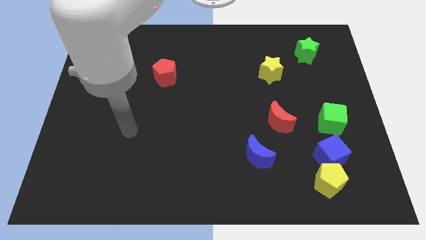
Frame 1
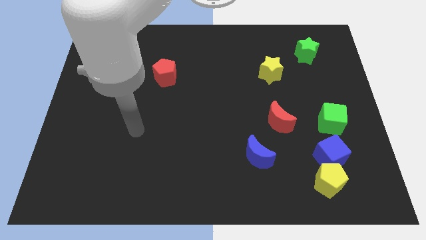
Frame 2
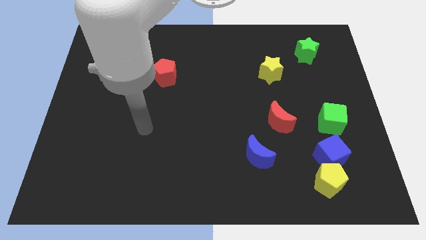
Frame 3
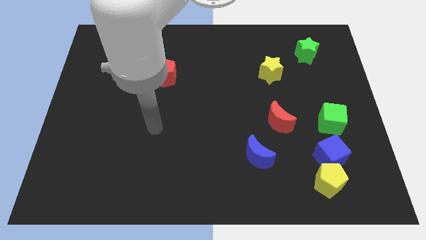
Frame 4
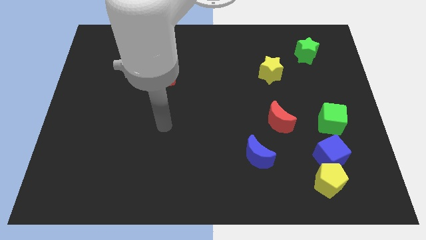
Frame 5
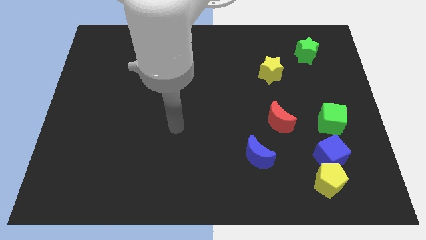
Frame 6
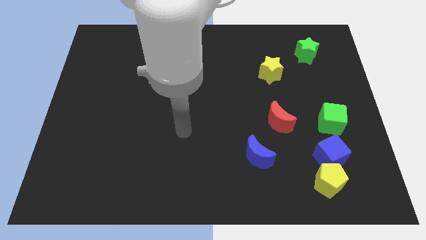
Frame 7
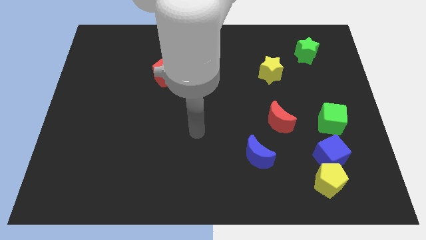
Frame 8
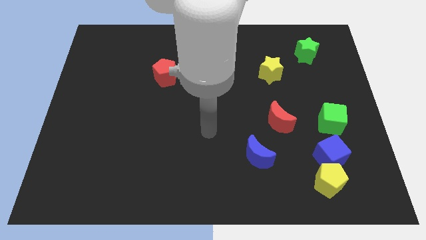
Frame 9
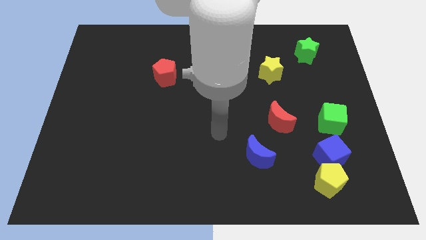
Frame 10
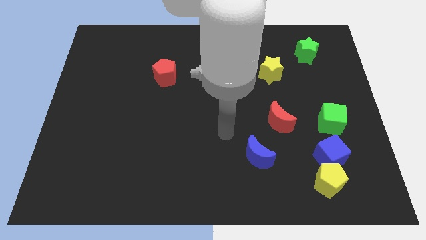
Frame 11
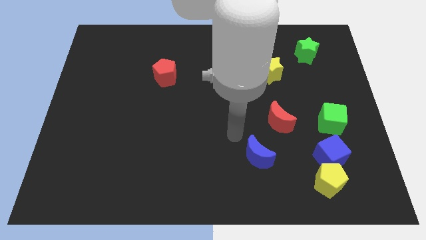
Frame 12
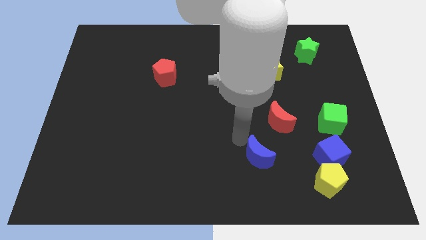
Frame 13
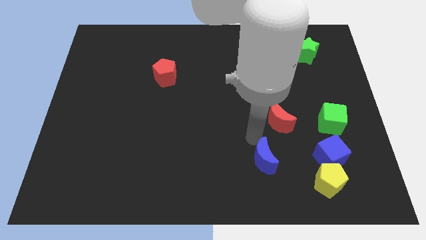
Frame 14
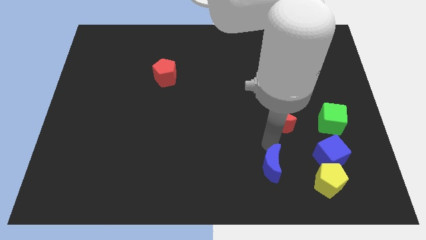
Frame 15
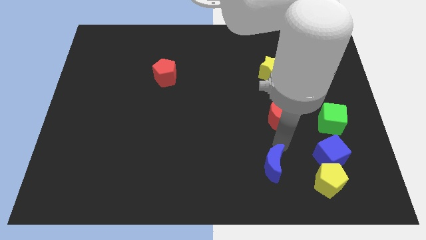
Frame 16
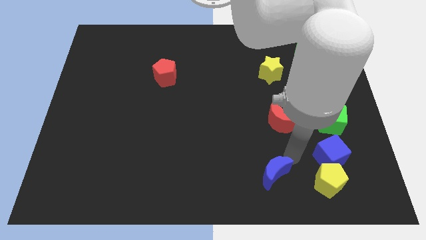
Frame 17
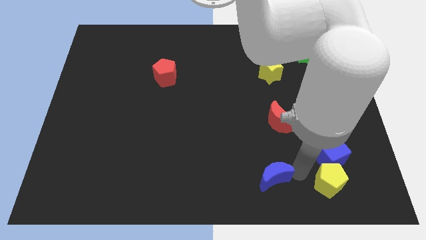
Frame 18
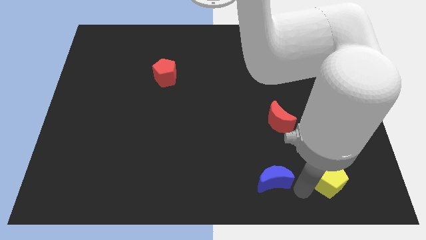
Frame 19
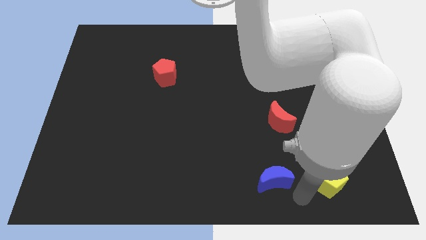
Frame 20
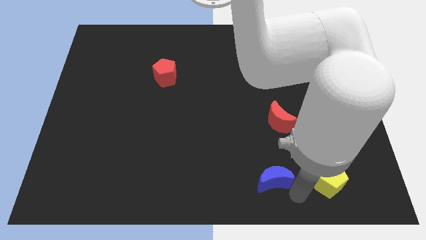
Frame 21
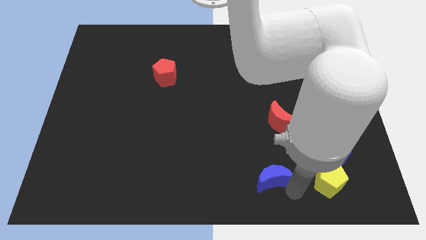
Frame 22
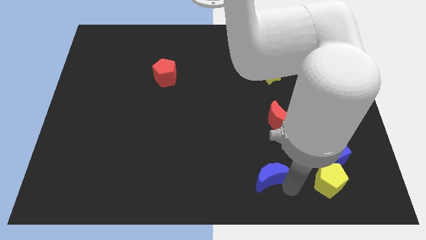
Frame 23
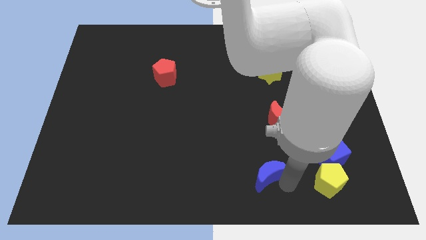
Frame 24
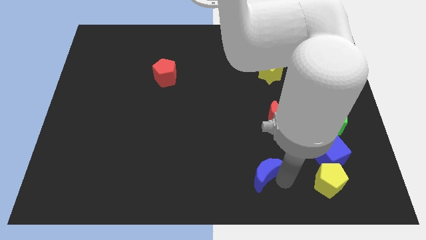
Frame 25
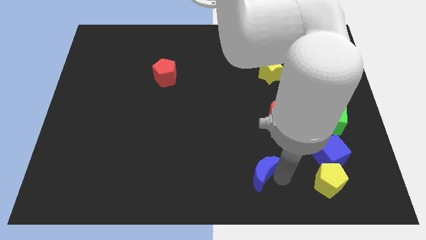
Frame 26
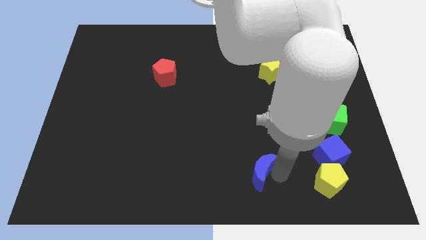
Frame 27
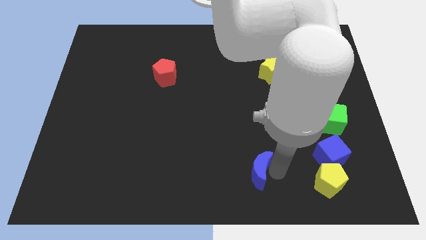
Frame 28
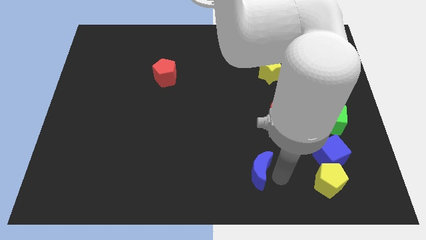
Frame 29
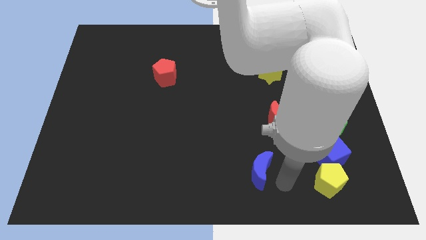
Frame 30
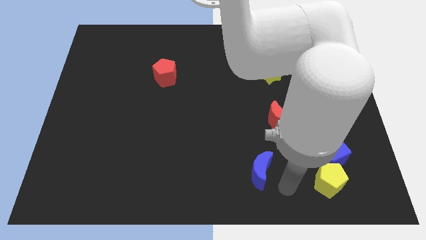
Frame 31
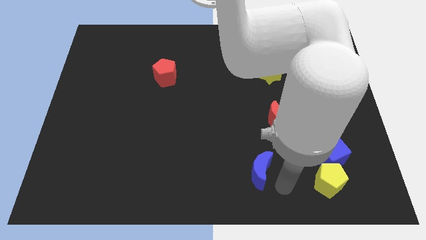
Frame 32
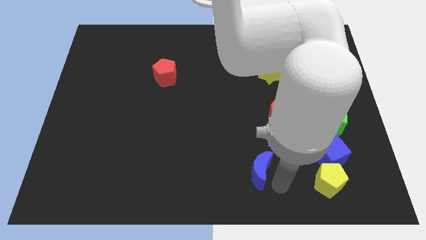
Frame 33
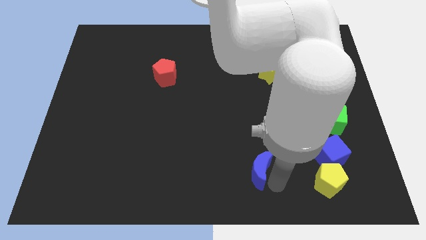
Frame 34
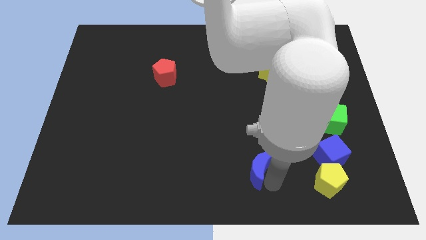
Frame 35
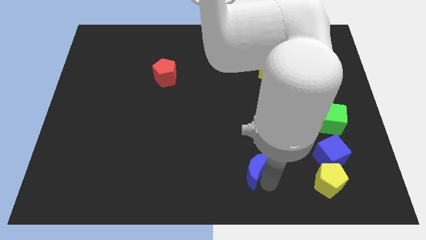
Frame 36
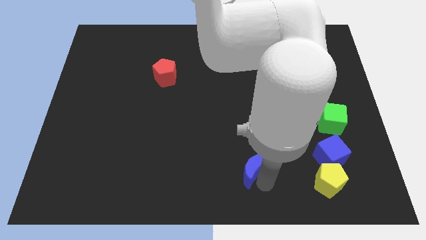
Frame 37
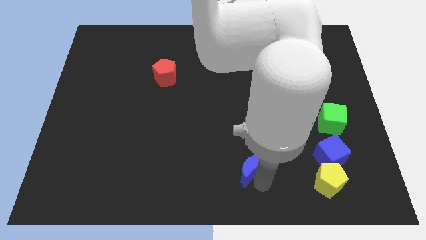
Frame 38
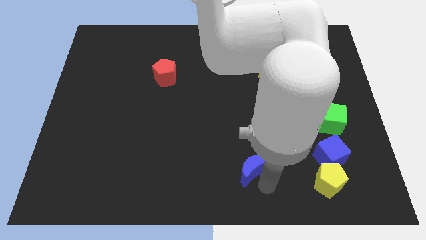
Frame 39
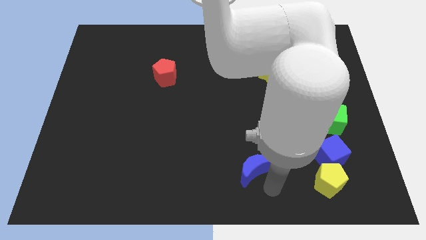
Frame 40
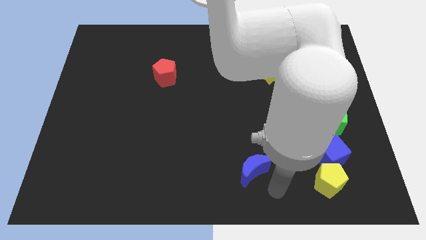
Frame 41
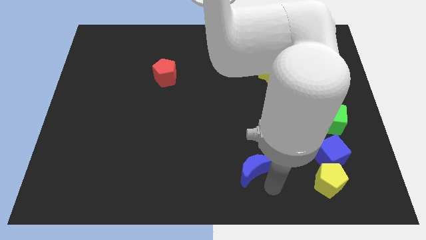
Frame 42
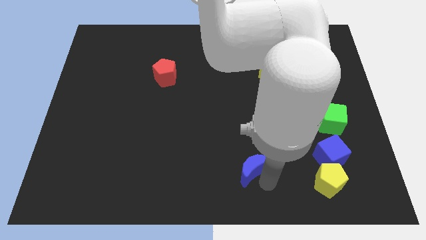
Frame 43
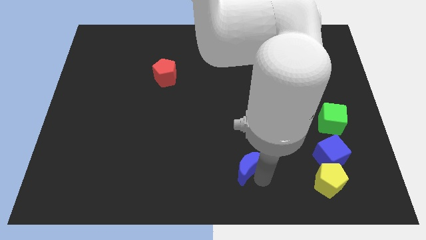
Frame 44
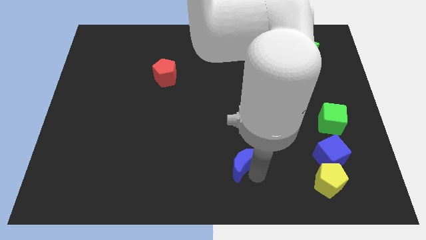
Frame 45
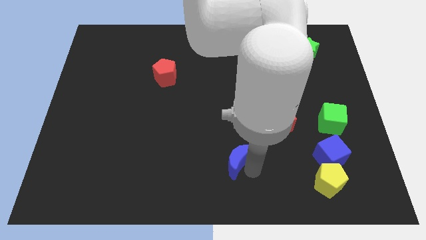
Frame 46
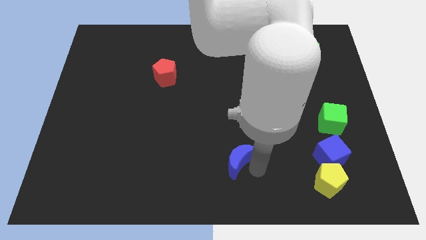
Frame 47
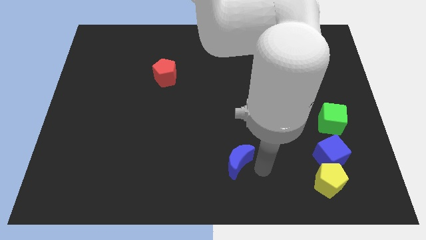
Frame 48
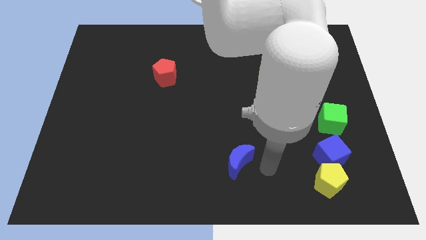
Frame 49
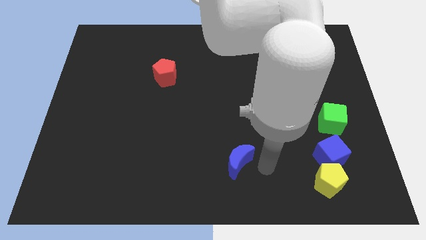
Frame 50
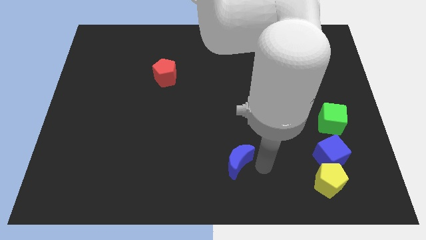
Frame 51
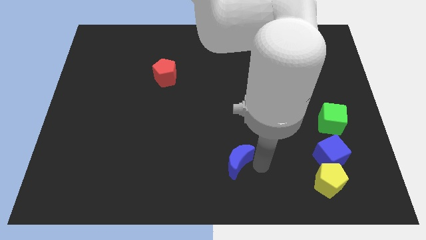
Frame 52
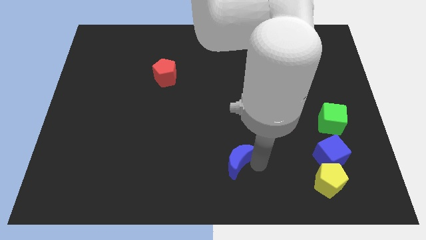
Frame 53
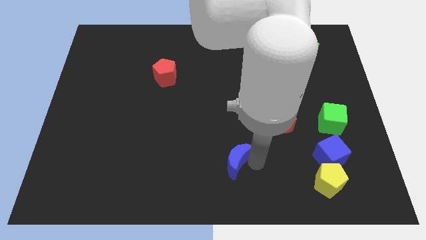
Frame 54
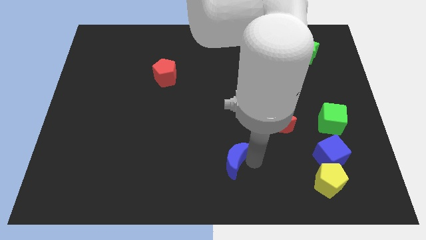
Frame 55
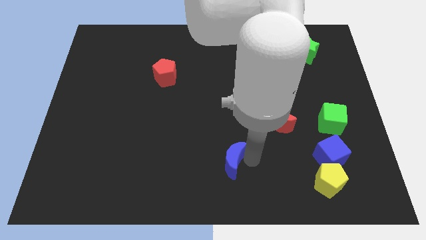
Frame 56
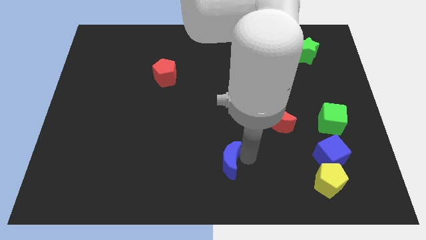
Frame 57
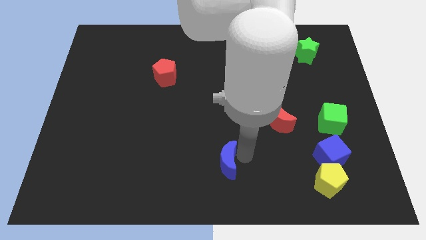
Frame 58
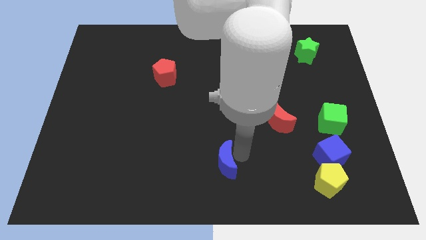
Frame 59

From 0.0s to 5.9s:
push the blue moon a little left

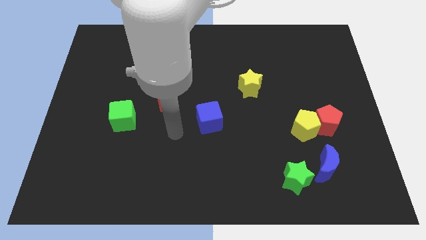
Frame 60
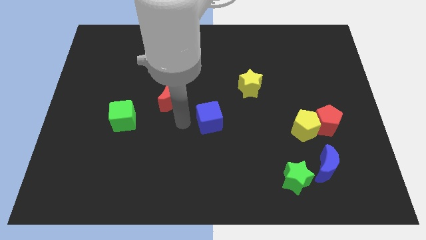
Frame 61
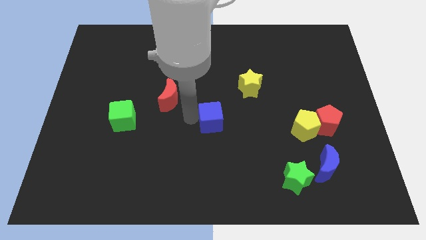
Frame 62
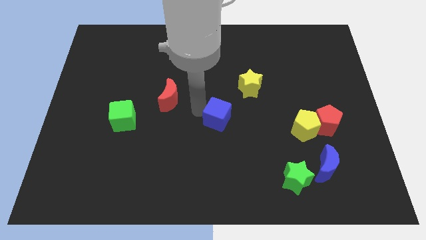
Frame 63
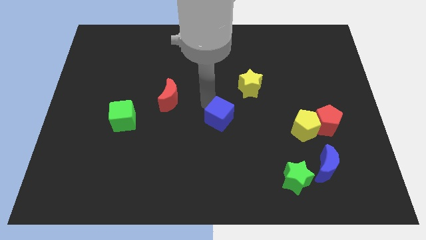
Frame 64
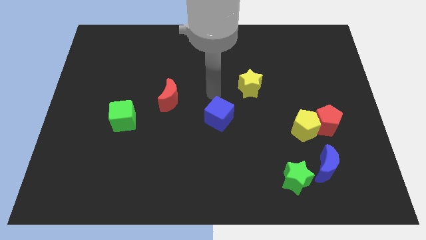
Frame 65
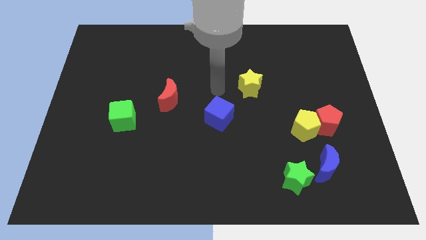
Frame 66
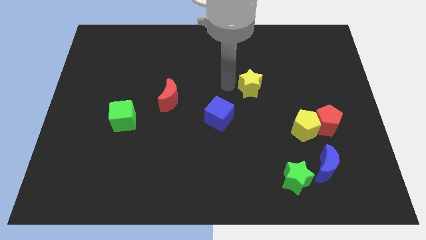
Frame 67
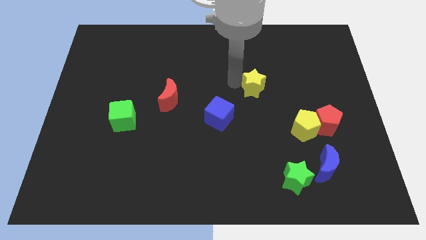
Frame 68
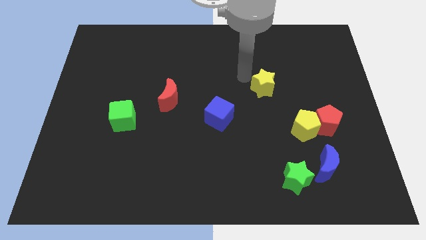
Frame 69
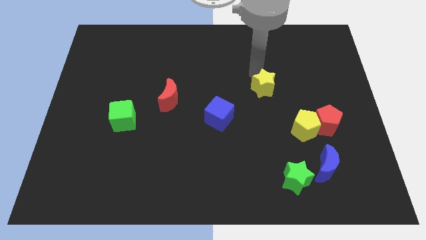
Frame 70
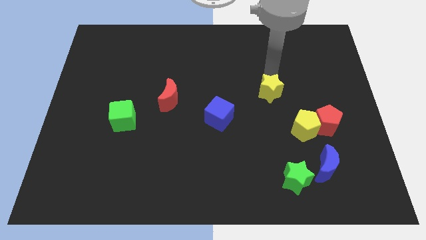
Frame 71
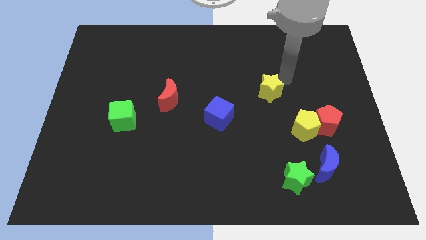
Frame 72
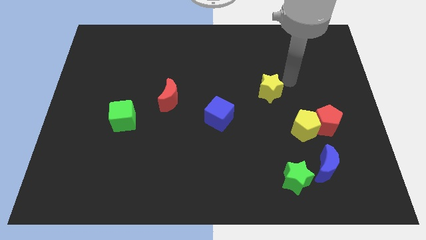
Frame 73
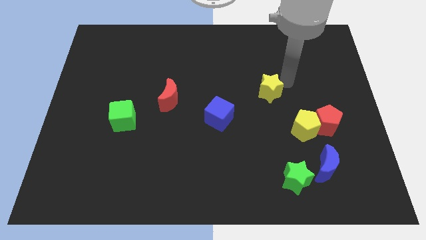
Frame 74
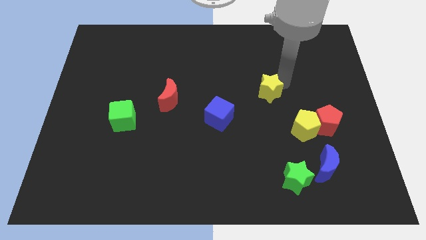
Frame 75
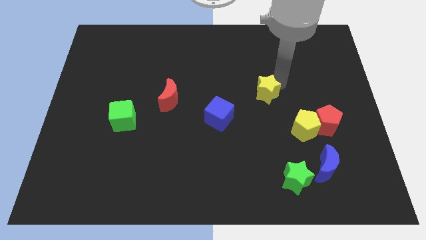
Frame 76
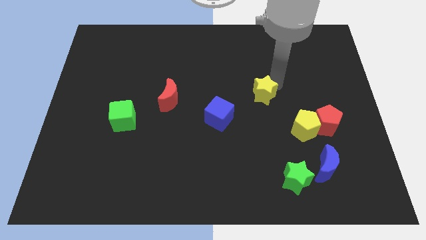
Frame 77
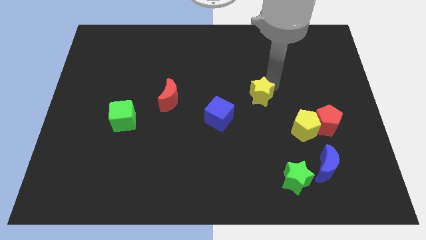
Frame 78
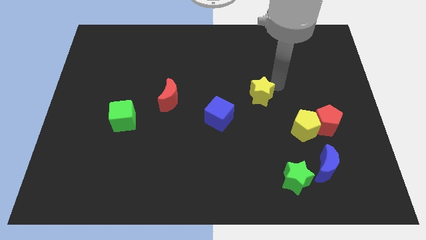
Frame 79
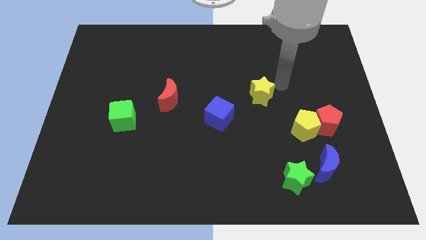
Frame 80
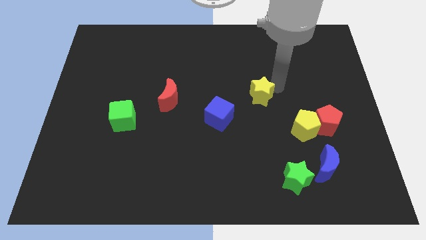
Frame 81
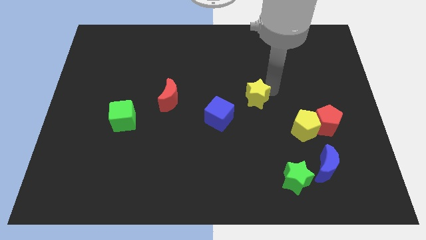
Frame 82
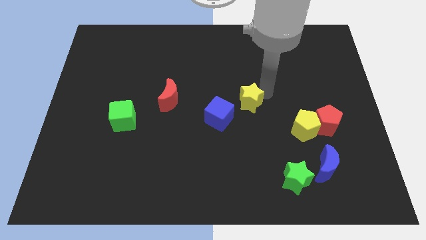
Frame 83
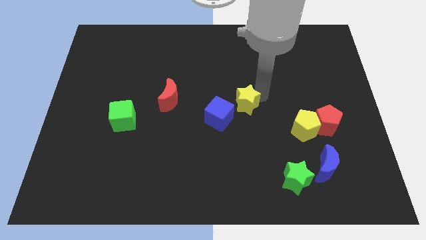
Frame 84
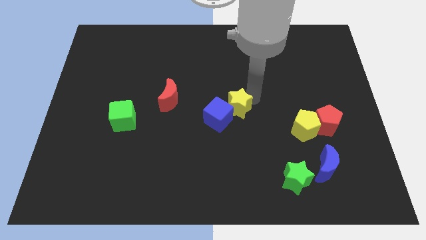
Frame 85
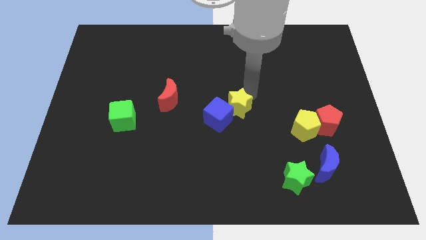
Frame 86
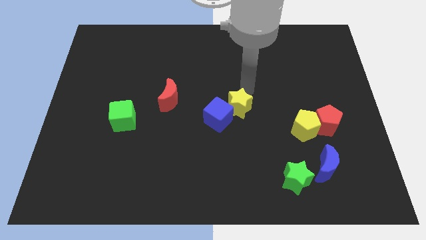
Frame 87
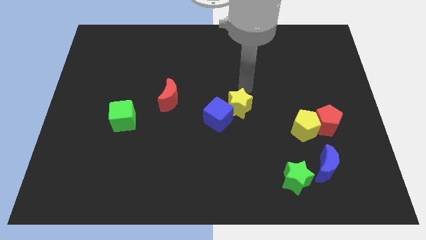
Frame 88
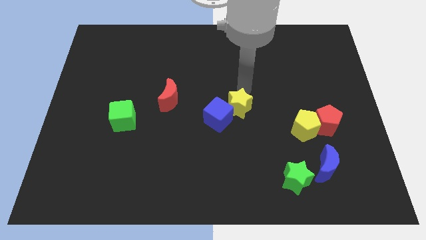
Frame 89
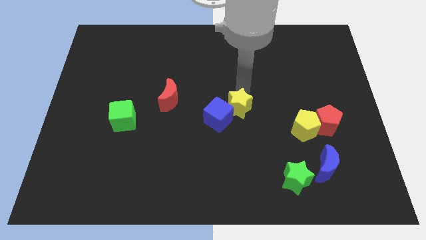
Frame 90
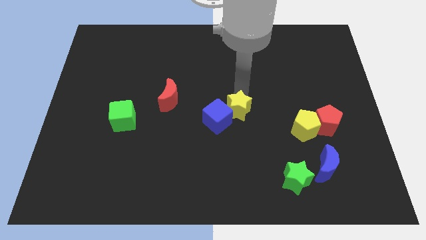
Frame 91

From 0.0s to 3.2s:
slide the yellow star a bit downwards and then left
